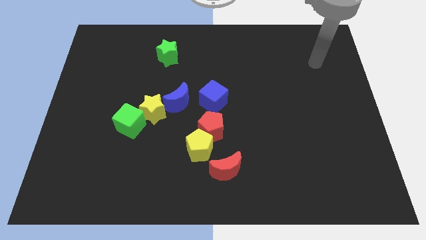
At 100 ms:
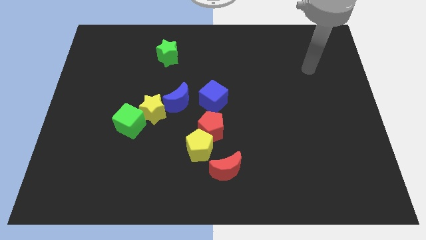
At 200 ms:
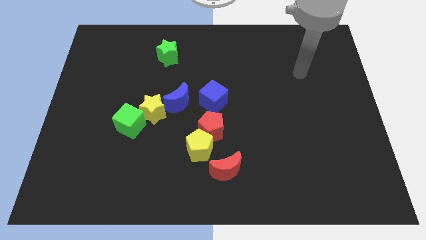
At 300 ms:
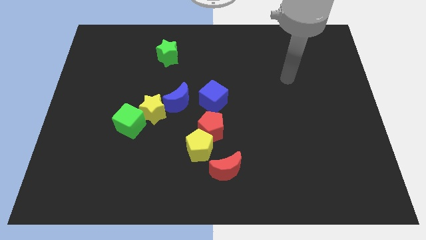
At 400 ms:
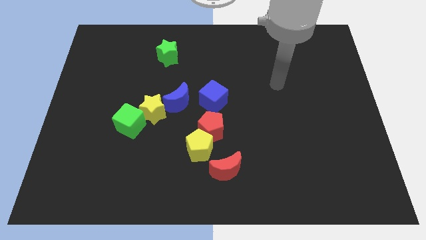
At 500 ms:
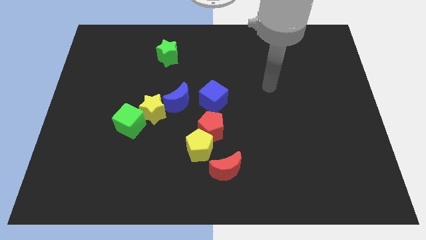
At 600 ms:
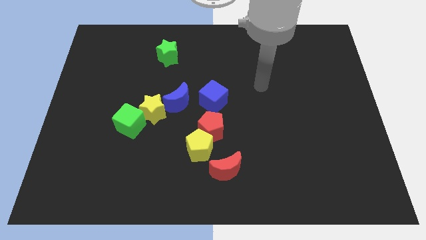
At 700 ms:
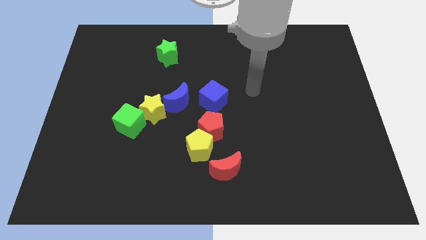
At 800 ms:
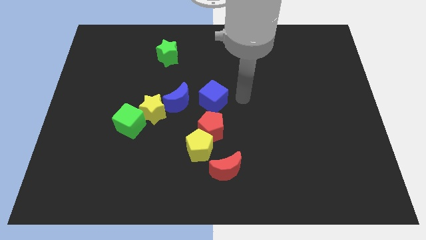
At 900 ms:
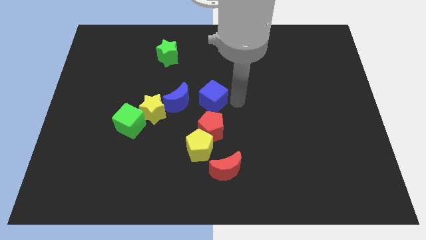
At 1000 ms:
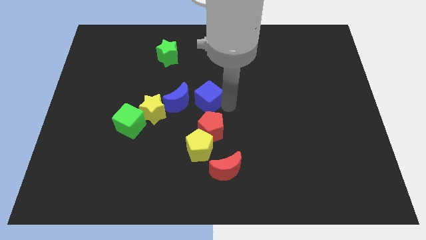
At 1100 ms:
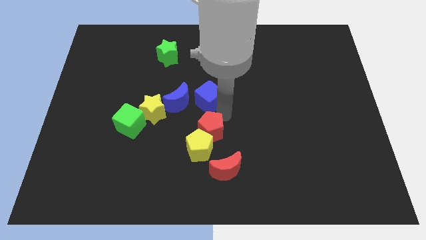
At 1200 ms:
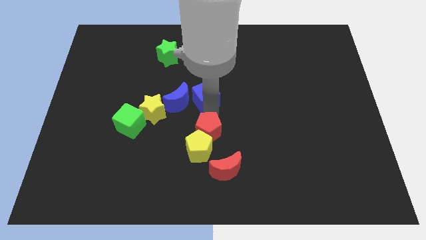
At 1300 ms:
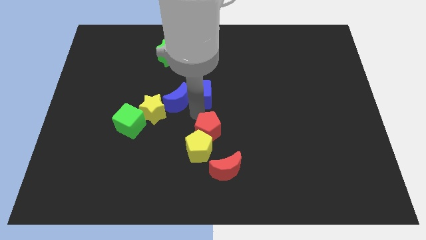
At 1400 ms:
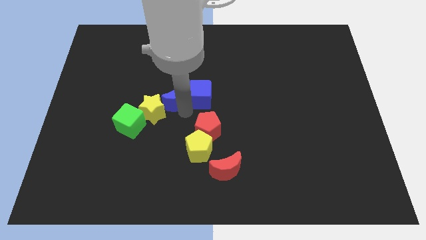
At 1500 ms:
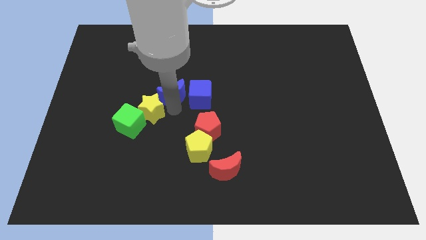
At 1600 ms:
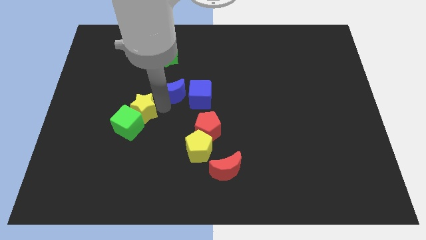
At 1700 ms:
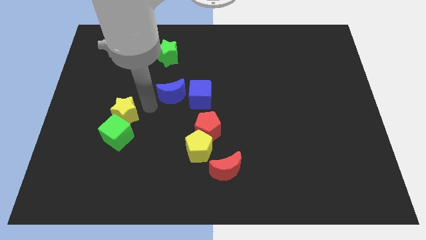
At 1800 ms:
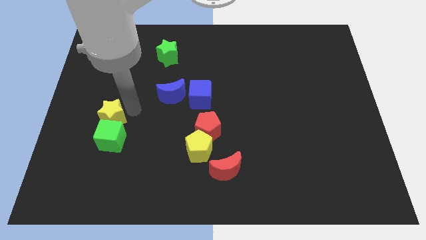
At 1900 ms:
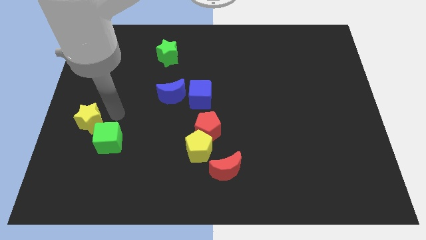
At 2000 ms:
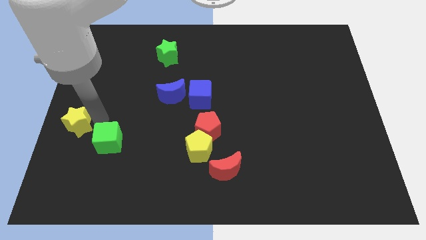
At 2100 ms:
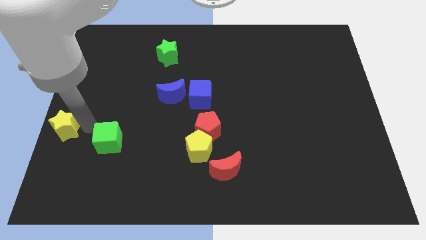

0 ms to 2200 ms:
move the green cube away from the yellow star

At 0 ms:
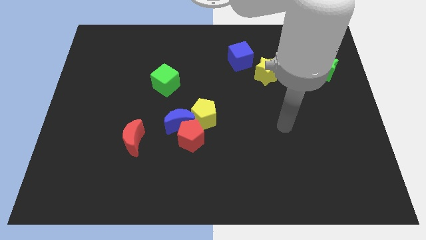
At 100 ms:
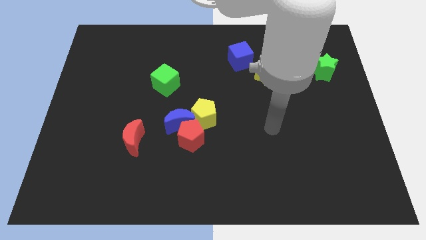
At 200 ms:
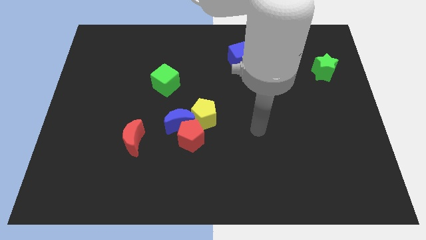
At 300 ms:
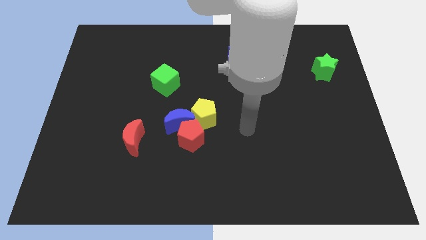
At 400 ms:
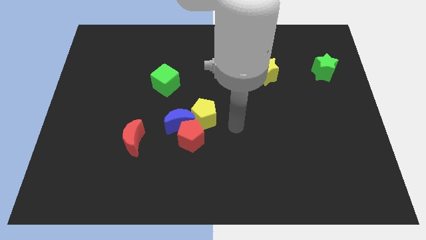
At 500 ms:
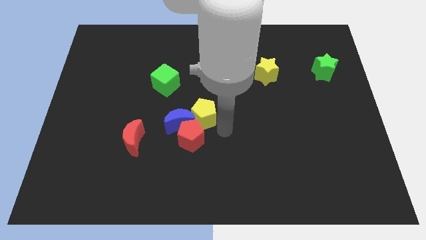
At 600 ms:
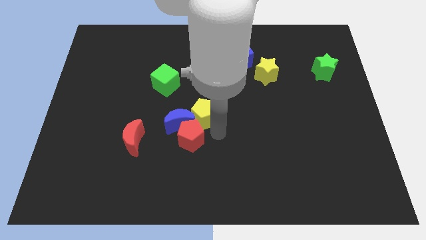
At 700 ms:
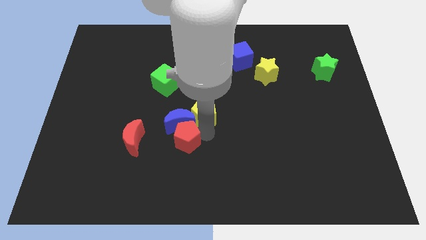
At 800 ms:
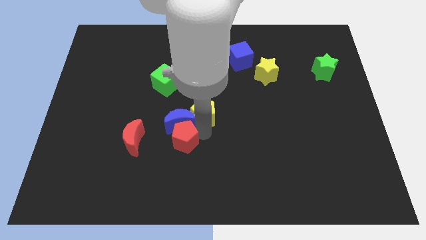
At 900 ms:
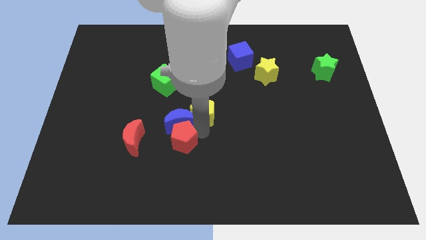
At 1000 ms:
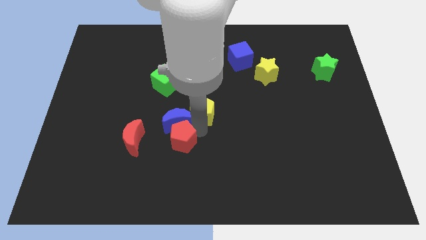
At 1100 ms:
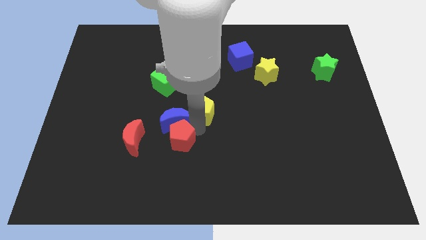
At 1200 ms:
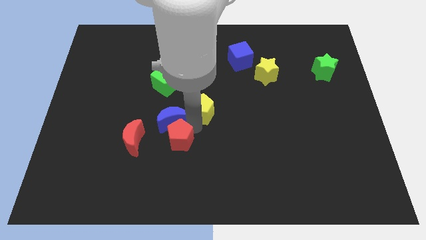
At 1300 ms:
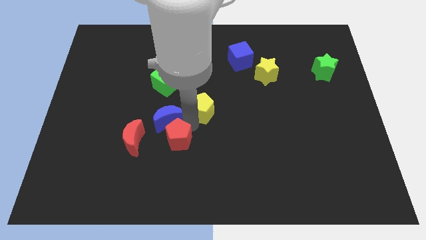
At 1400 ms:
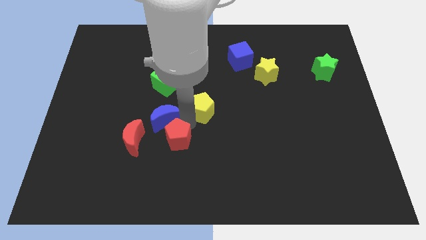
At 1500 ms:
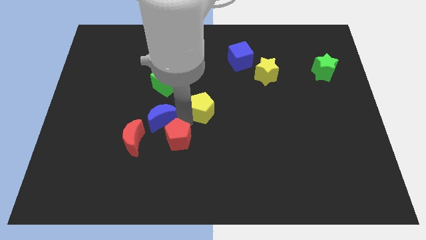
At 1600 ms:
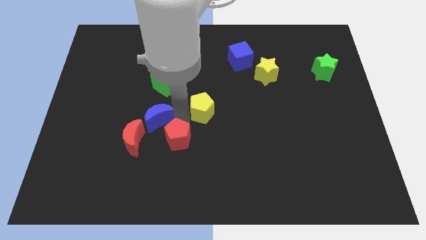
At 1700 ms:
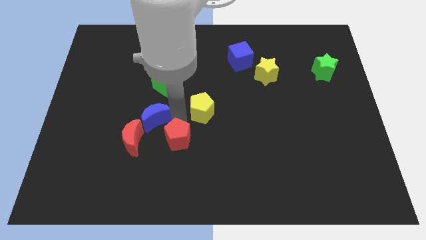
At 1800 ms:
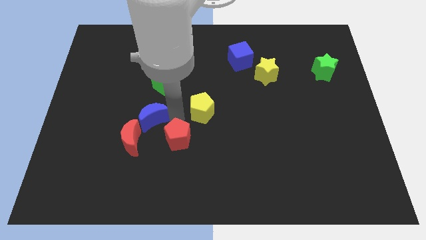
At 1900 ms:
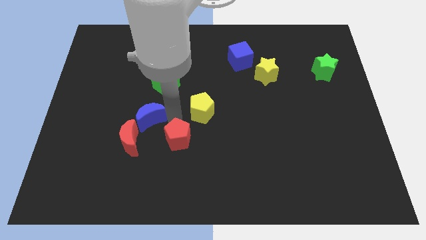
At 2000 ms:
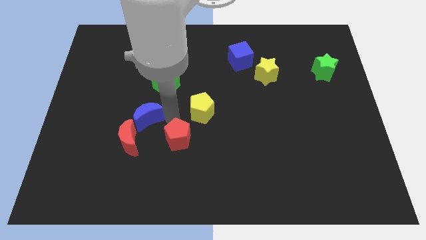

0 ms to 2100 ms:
pull the blue moon apart from the red pentagon and yellow pentagon

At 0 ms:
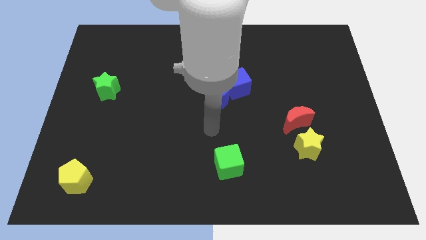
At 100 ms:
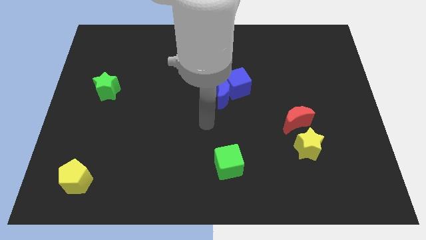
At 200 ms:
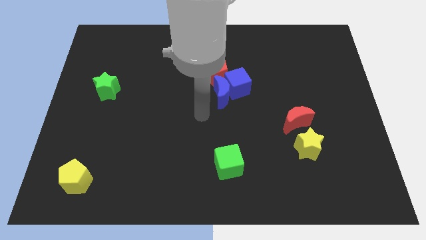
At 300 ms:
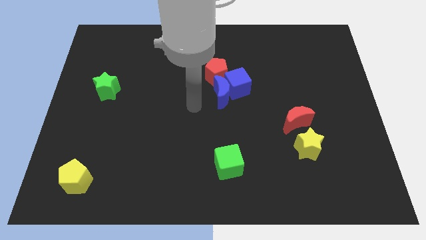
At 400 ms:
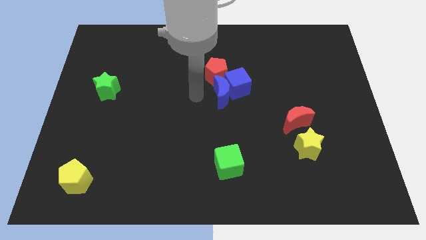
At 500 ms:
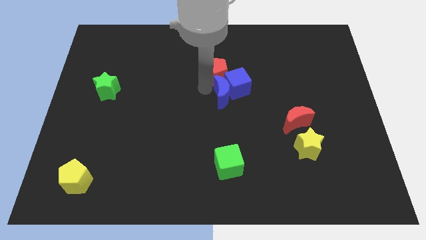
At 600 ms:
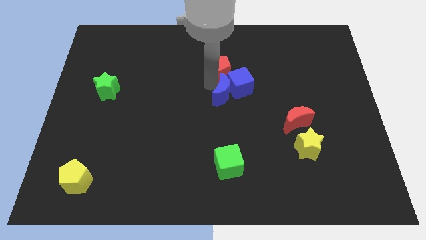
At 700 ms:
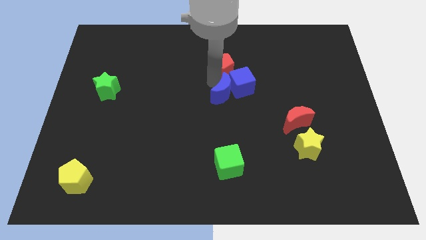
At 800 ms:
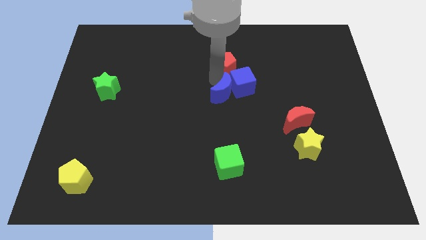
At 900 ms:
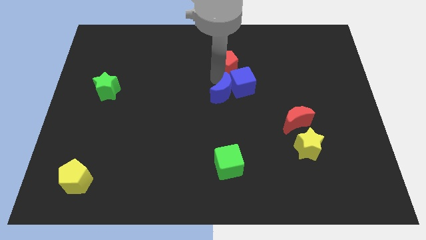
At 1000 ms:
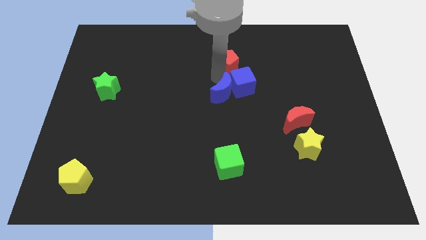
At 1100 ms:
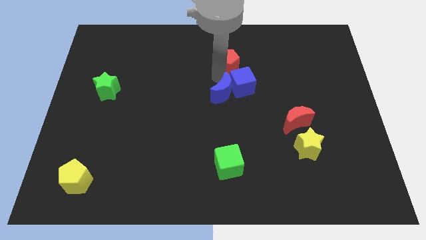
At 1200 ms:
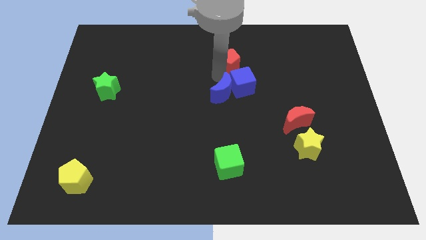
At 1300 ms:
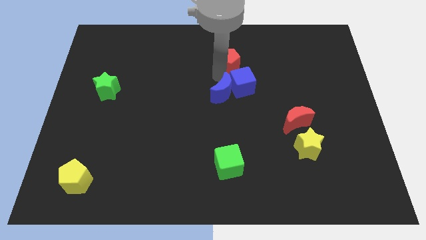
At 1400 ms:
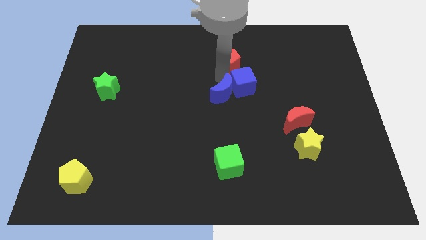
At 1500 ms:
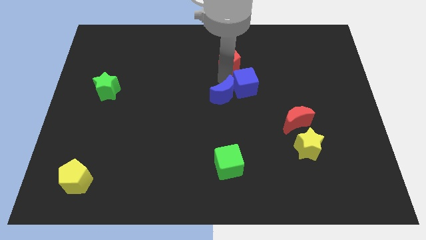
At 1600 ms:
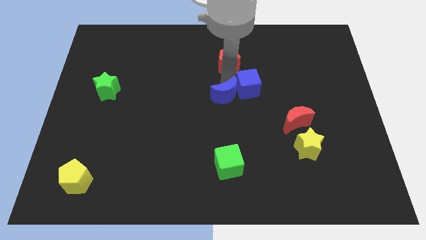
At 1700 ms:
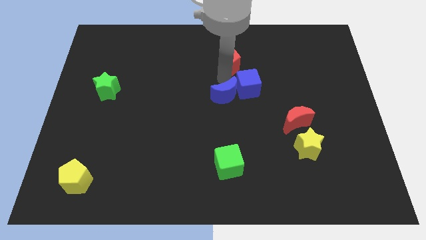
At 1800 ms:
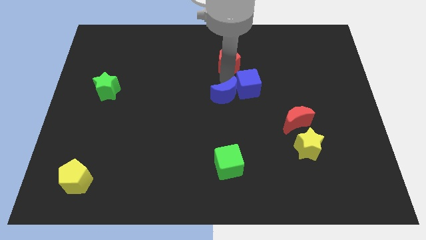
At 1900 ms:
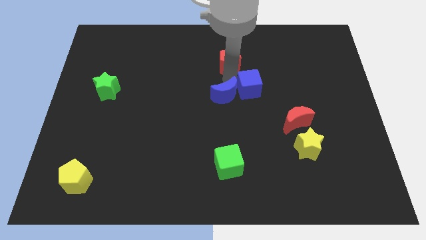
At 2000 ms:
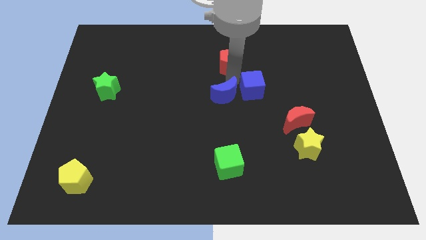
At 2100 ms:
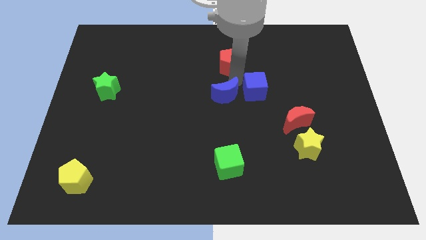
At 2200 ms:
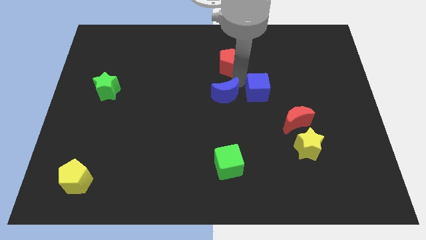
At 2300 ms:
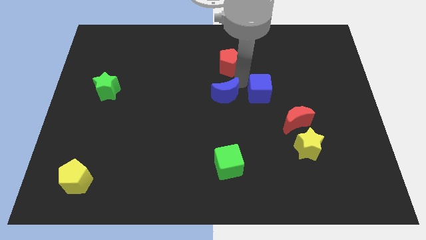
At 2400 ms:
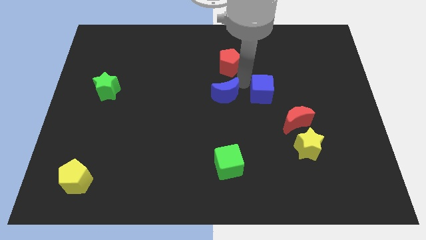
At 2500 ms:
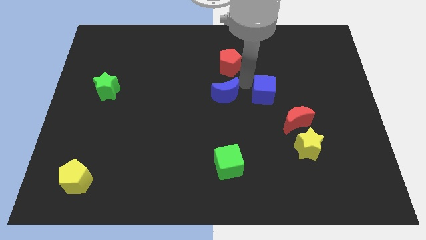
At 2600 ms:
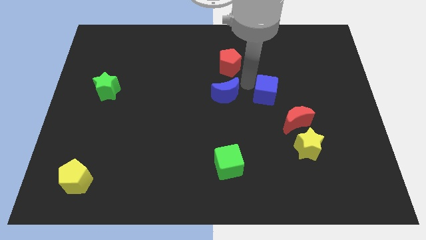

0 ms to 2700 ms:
move the blue cube away from the blue moon and red pentagon

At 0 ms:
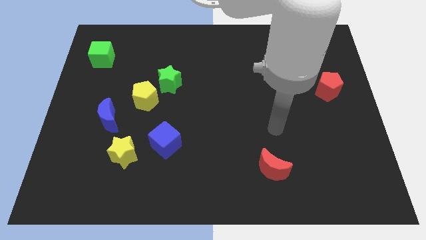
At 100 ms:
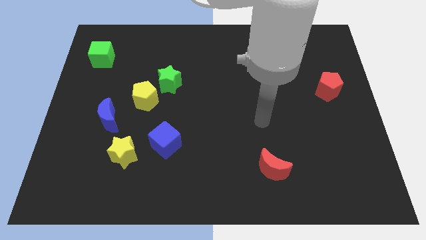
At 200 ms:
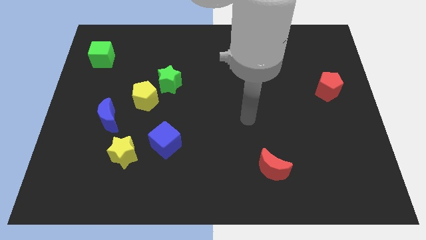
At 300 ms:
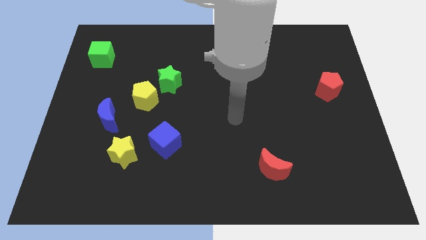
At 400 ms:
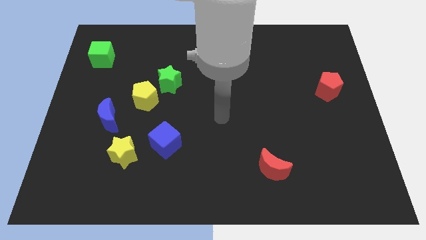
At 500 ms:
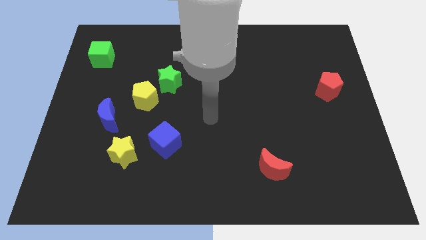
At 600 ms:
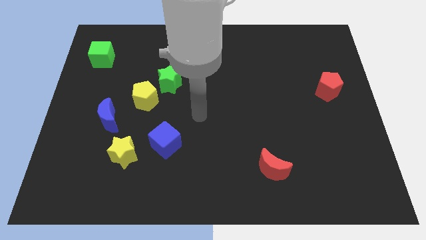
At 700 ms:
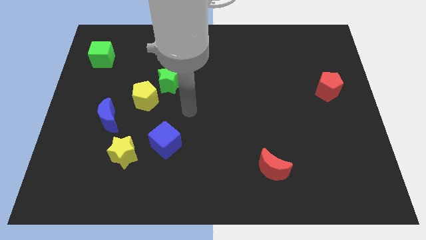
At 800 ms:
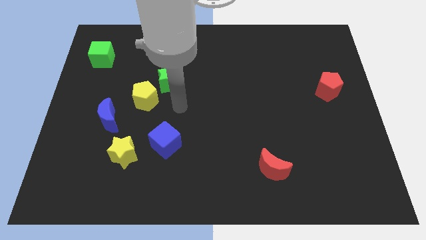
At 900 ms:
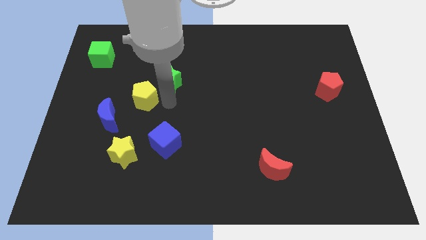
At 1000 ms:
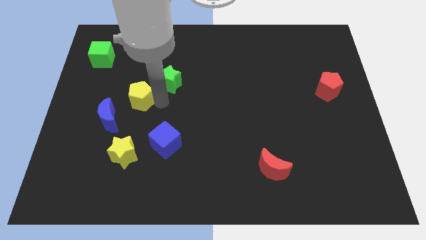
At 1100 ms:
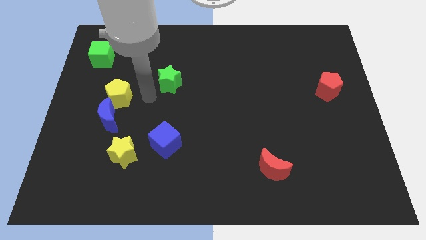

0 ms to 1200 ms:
move the green star away from the yellow pentagon

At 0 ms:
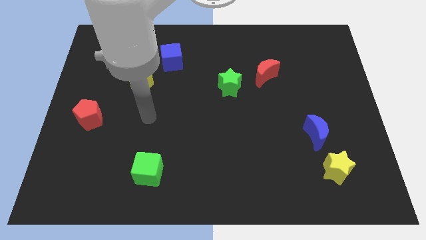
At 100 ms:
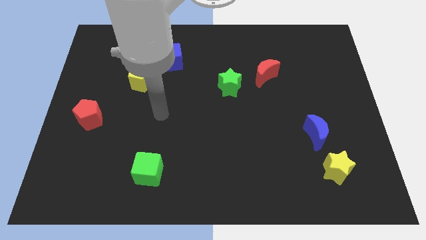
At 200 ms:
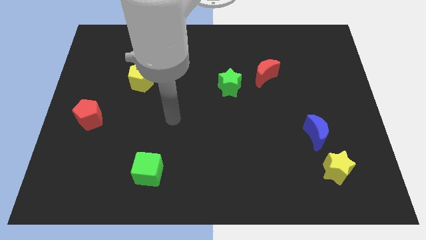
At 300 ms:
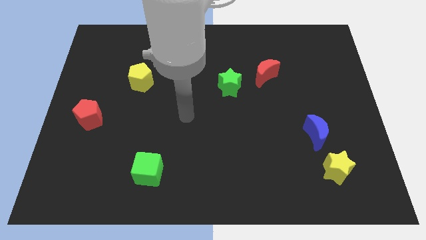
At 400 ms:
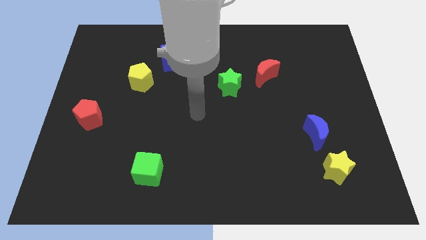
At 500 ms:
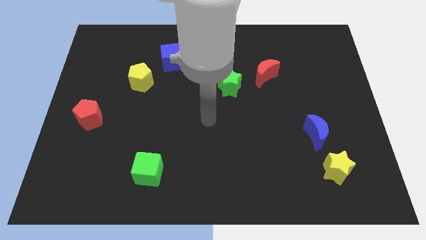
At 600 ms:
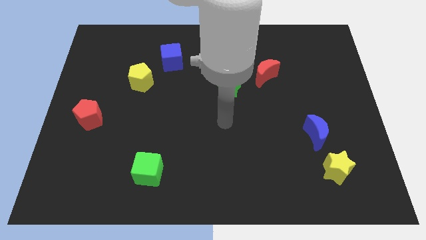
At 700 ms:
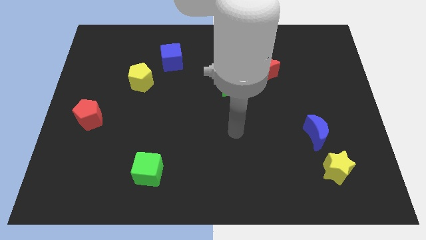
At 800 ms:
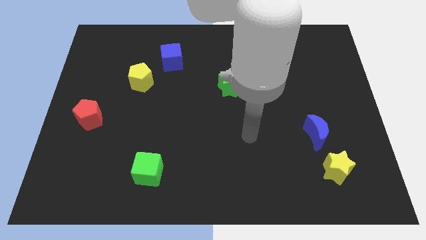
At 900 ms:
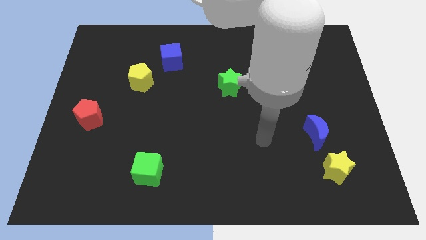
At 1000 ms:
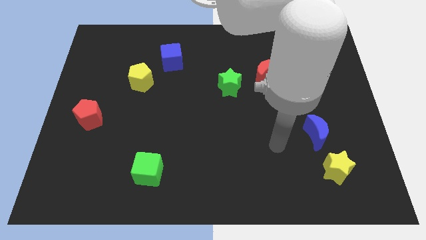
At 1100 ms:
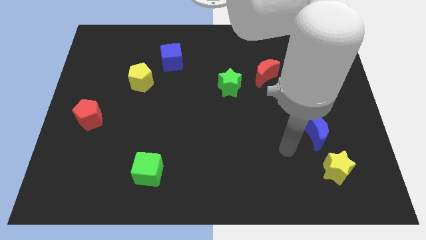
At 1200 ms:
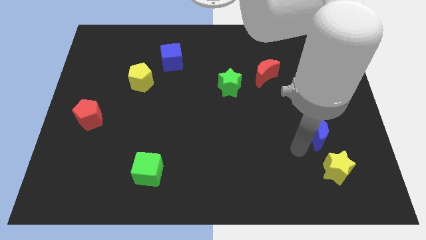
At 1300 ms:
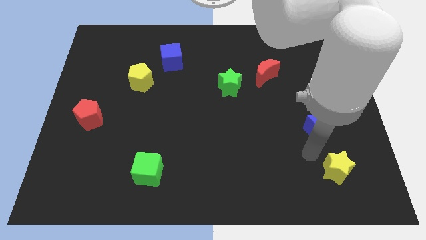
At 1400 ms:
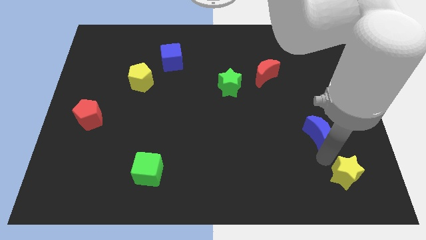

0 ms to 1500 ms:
pull the blue moon apart from the yellow star
